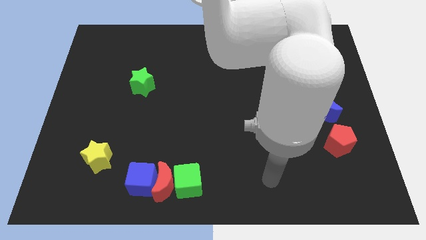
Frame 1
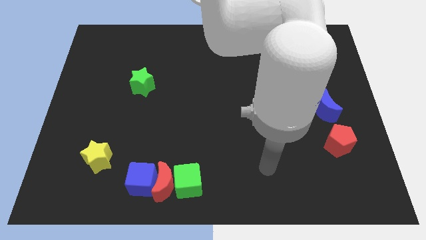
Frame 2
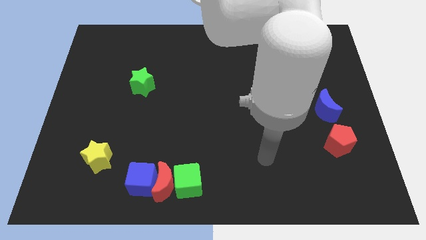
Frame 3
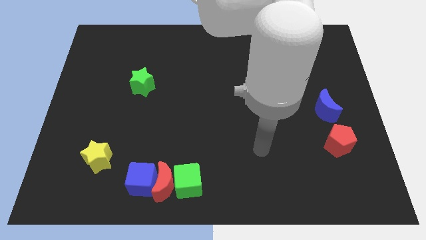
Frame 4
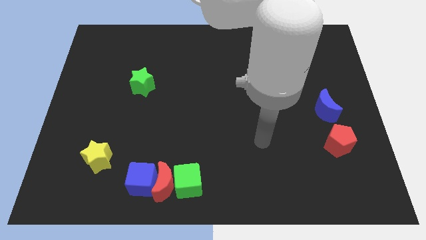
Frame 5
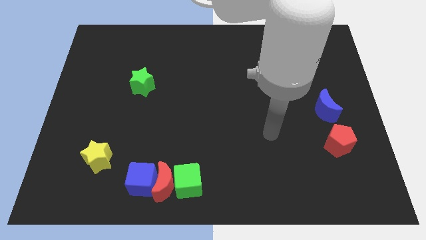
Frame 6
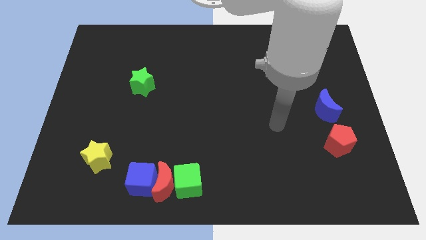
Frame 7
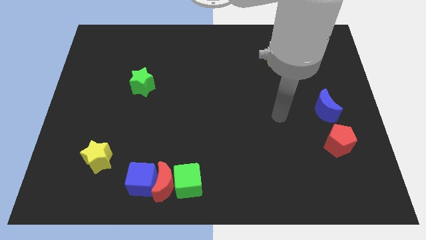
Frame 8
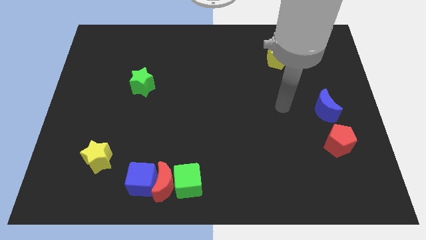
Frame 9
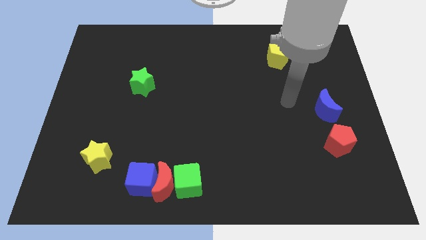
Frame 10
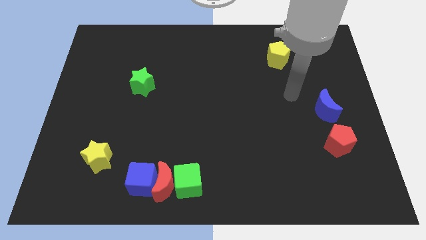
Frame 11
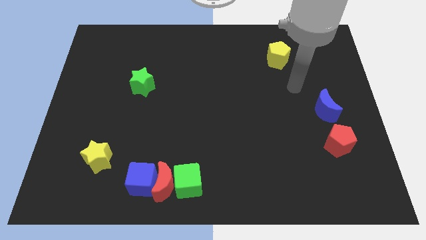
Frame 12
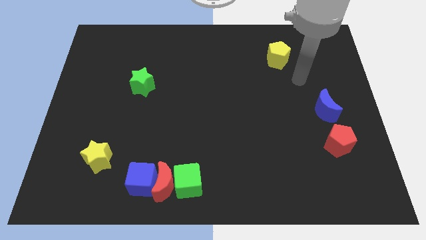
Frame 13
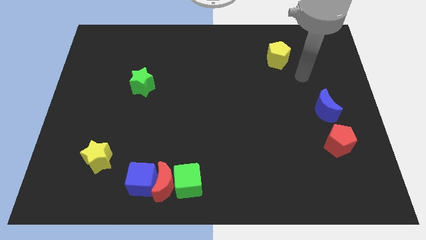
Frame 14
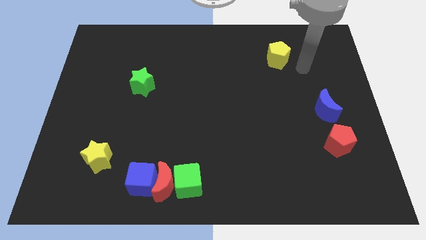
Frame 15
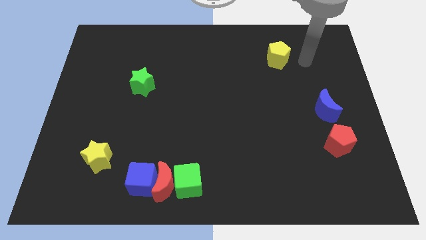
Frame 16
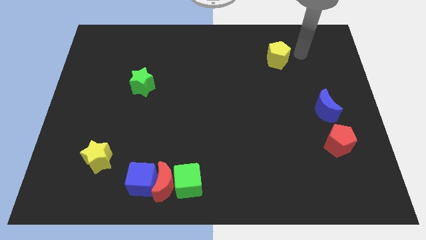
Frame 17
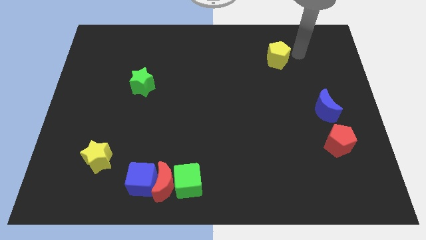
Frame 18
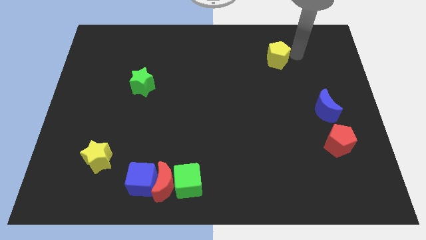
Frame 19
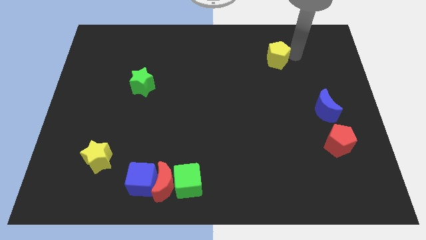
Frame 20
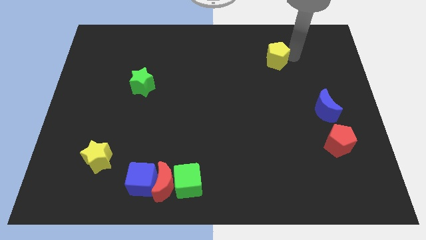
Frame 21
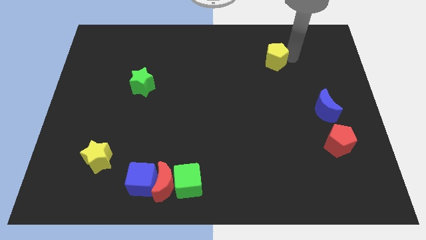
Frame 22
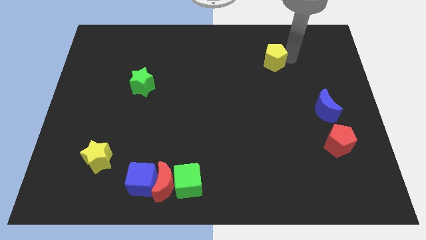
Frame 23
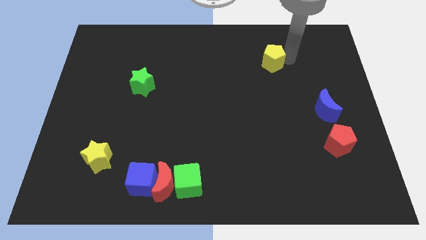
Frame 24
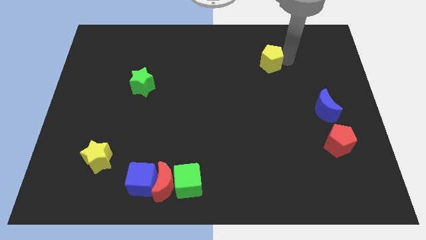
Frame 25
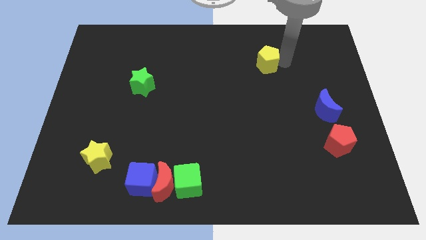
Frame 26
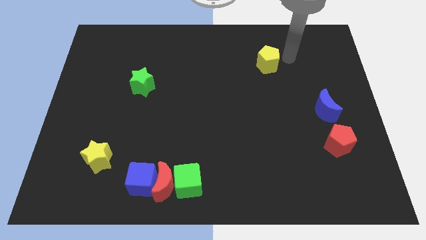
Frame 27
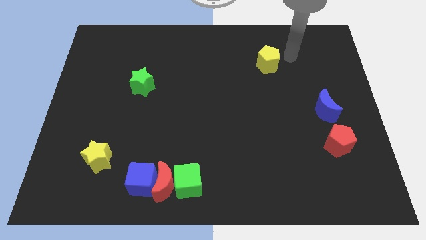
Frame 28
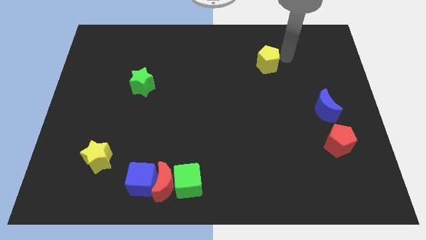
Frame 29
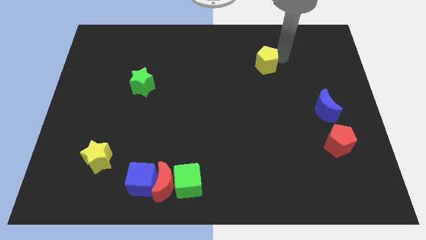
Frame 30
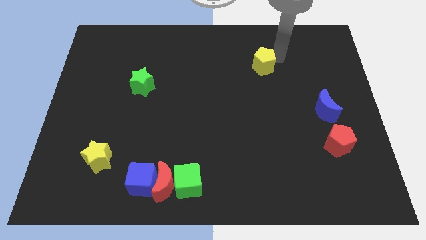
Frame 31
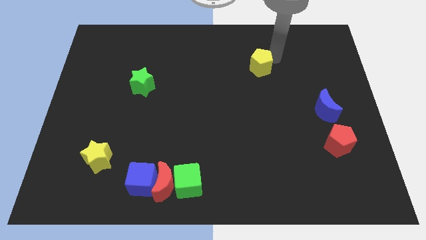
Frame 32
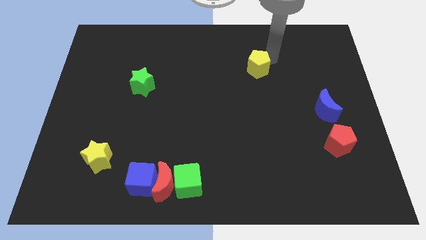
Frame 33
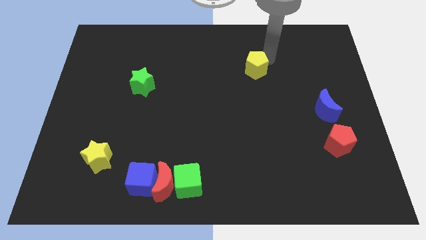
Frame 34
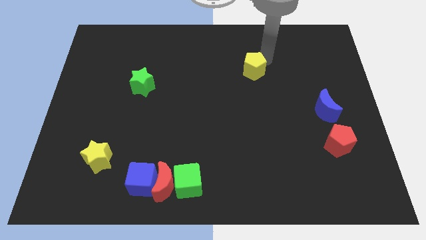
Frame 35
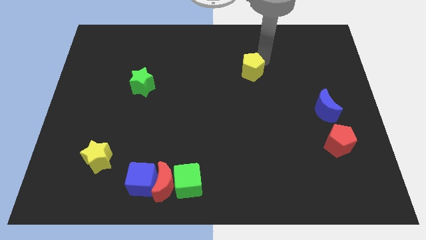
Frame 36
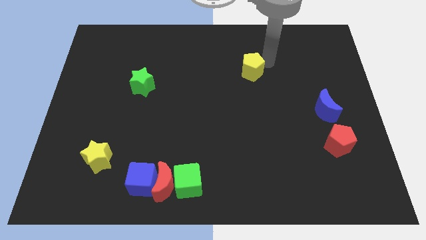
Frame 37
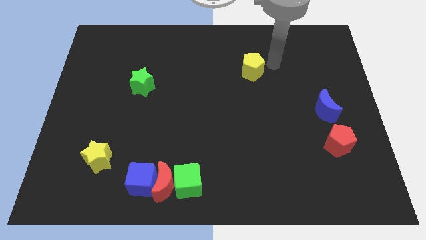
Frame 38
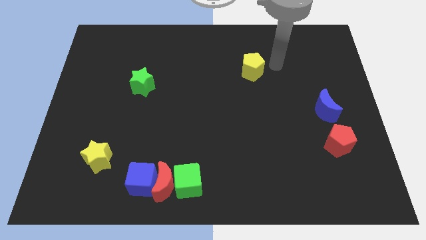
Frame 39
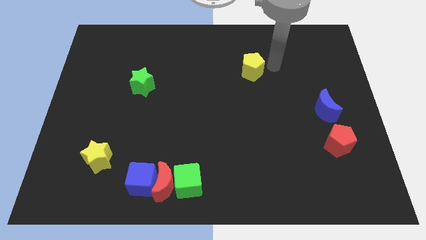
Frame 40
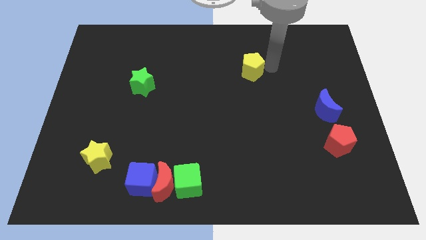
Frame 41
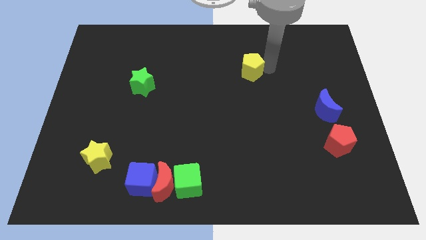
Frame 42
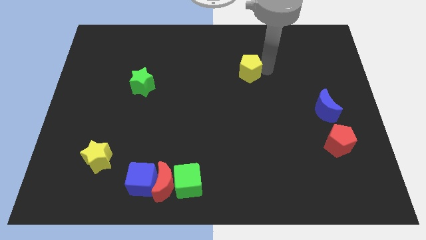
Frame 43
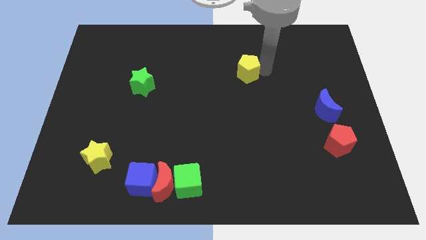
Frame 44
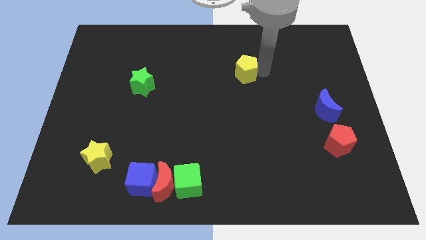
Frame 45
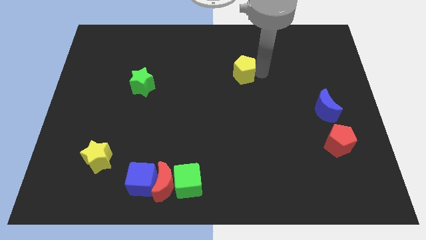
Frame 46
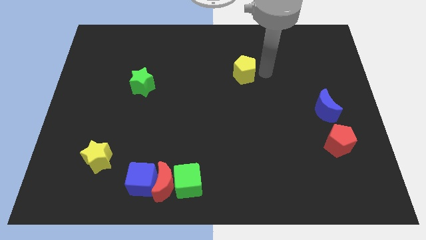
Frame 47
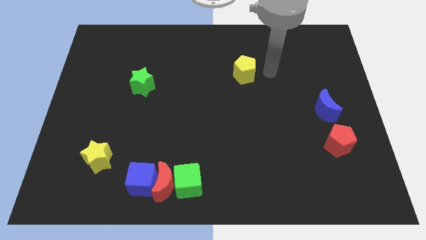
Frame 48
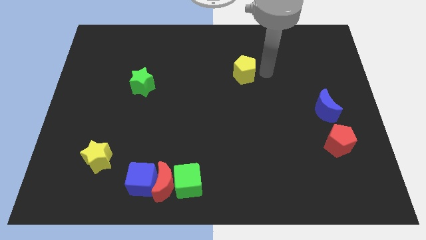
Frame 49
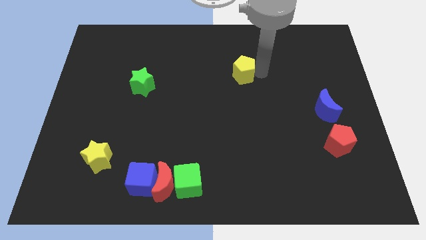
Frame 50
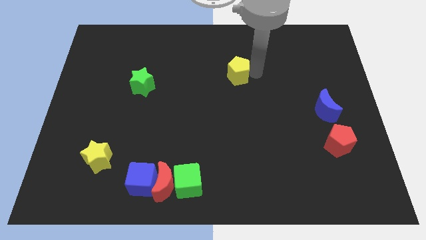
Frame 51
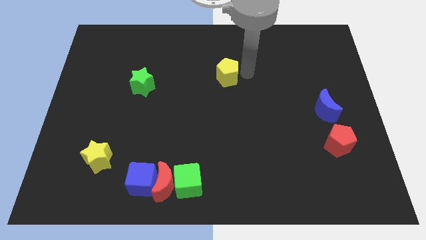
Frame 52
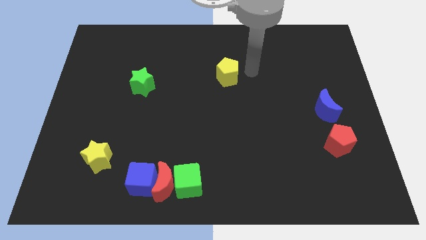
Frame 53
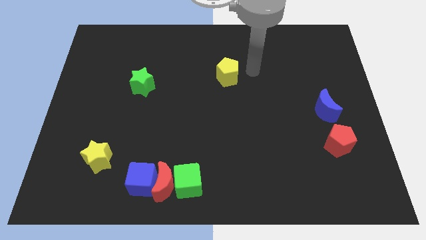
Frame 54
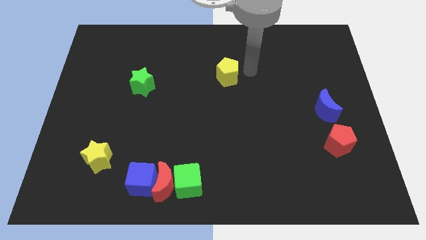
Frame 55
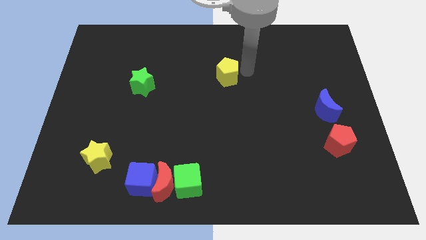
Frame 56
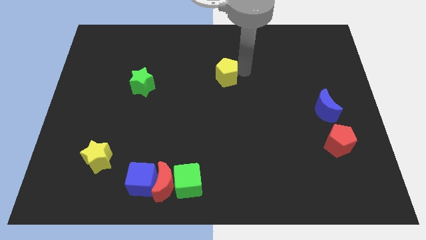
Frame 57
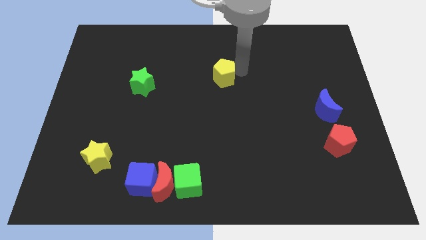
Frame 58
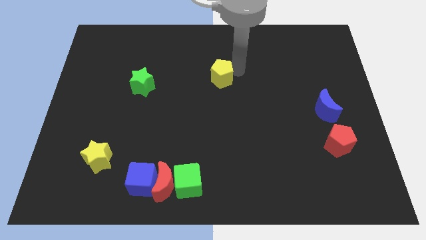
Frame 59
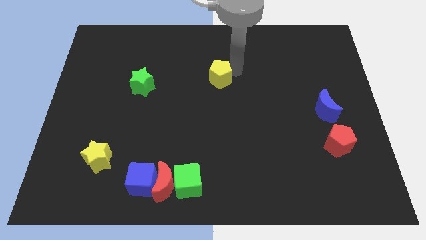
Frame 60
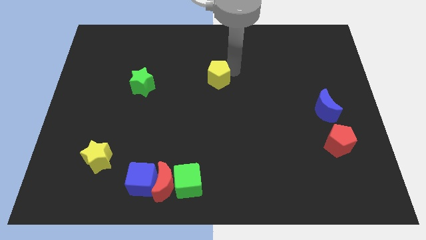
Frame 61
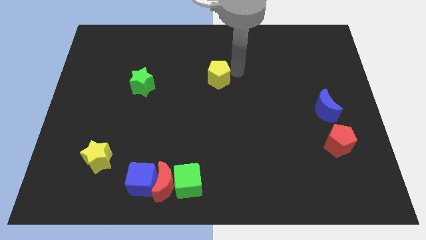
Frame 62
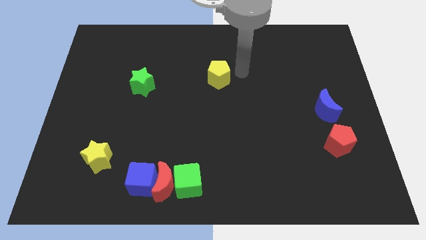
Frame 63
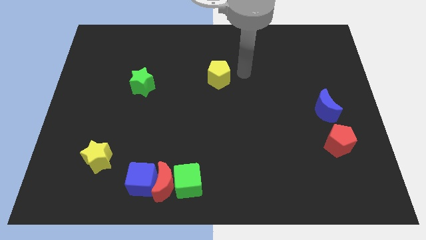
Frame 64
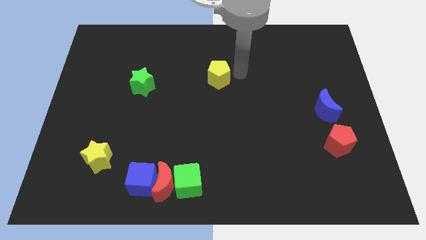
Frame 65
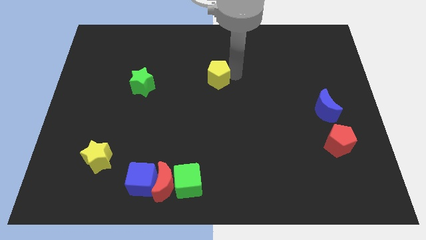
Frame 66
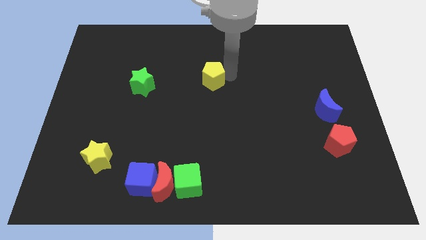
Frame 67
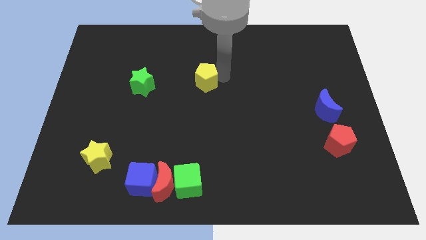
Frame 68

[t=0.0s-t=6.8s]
slide the yellow pentagon to the right of the green star
